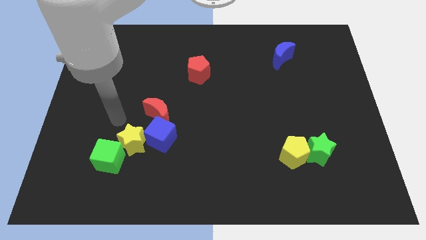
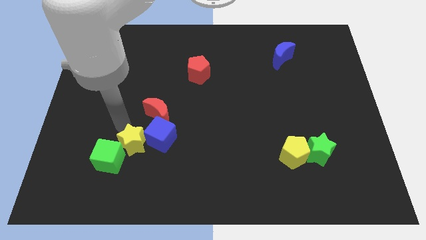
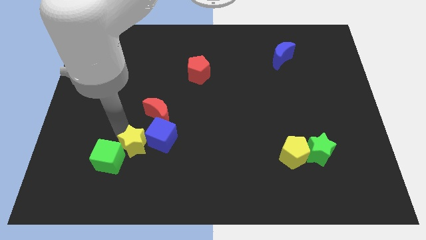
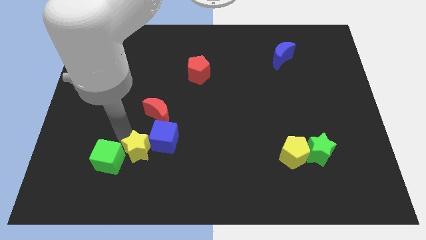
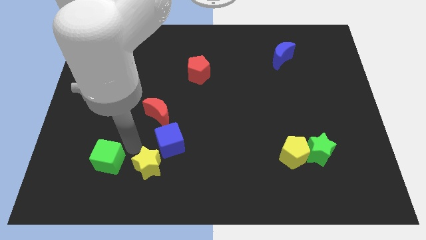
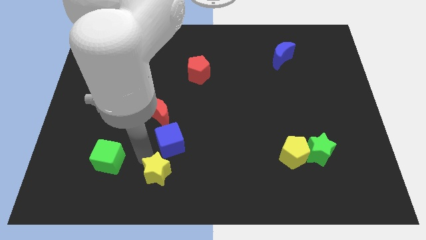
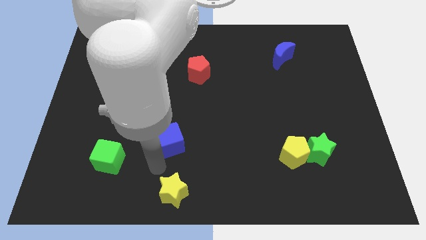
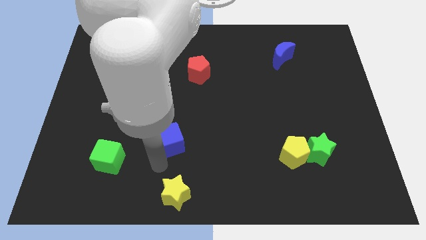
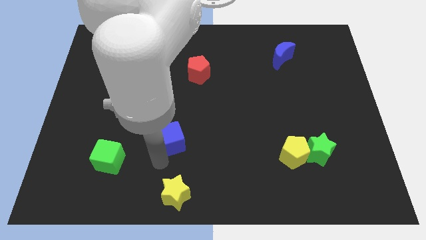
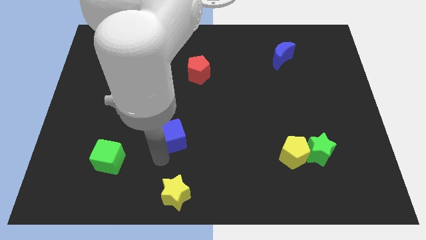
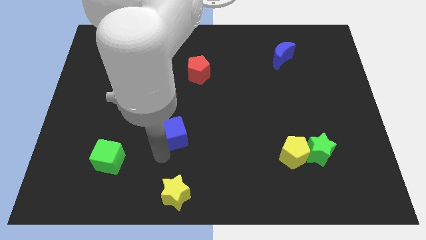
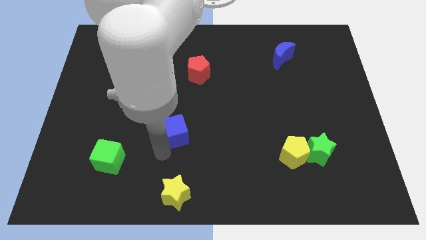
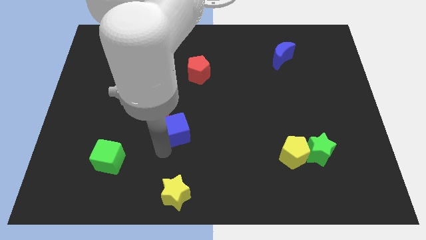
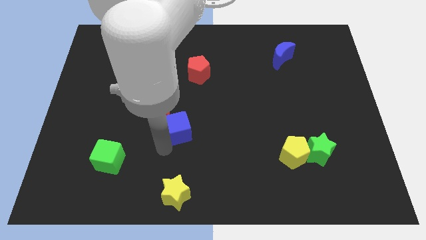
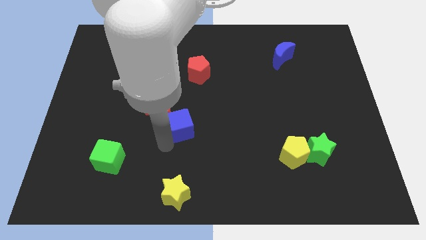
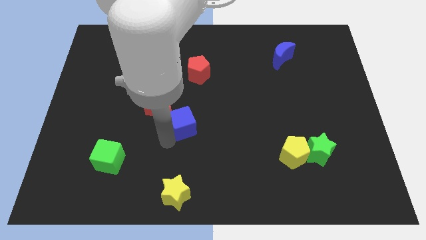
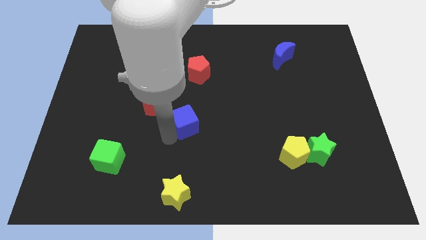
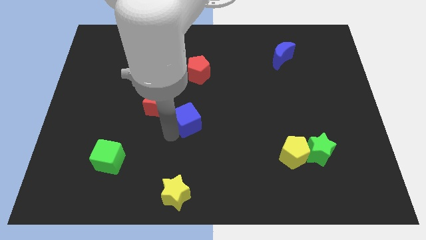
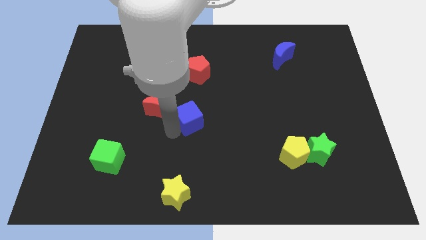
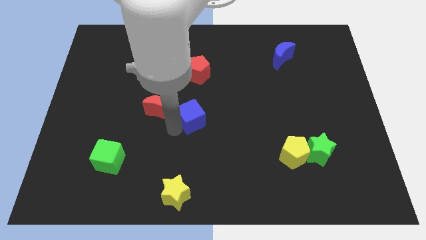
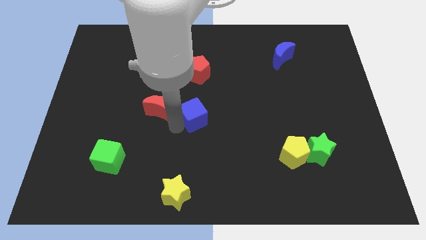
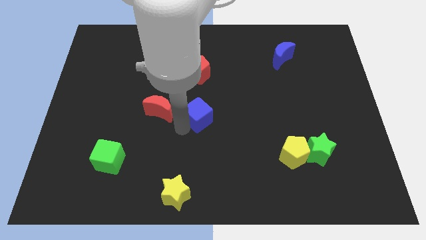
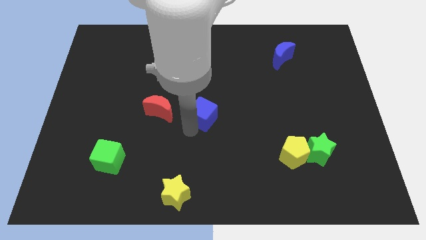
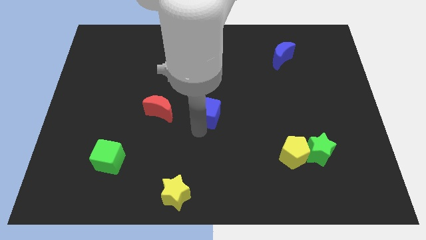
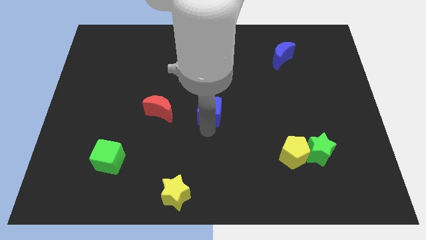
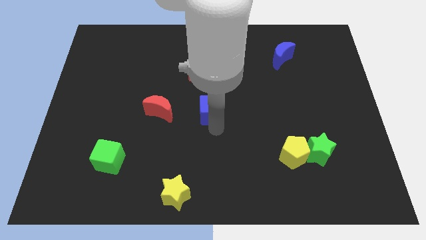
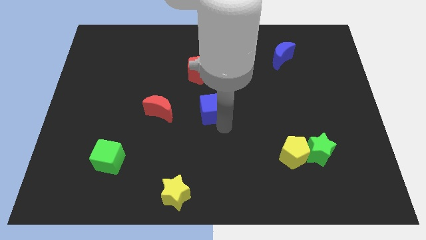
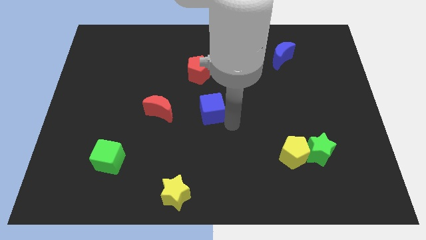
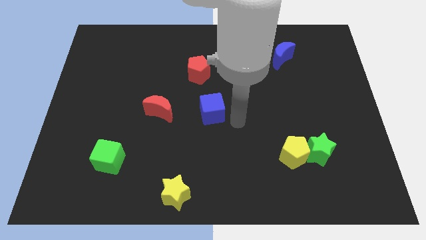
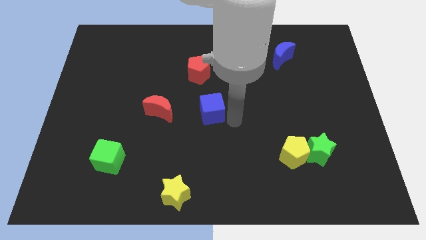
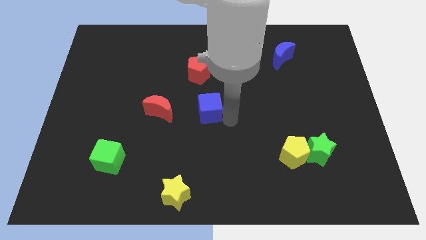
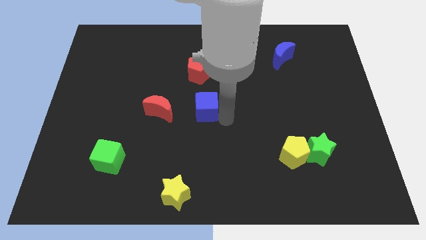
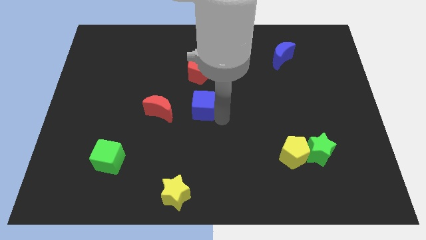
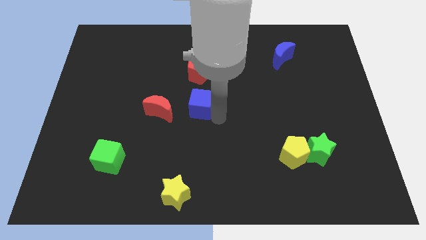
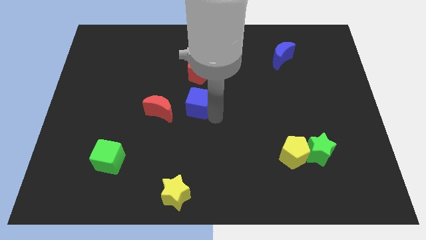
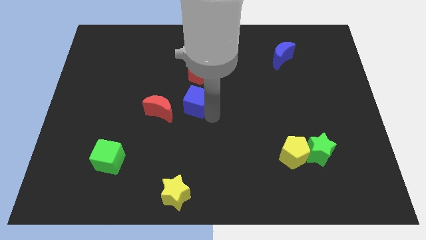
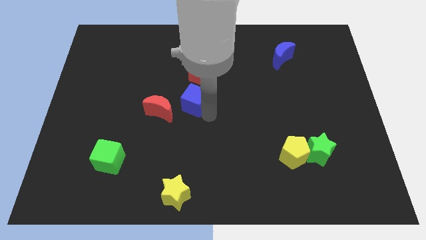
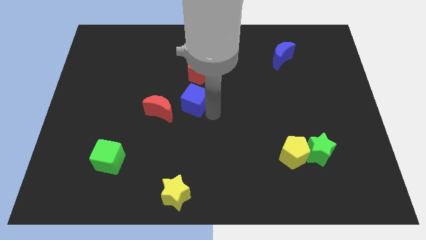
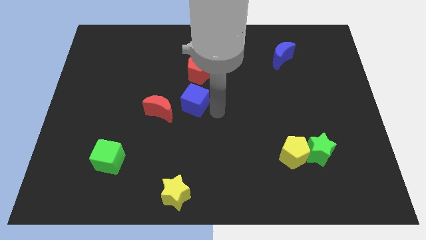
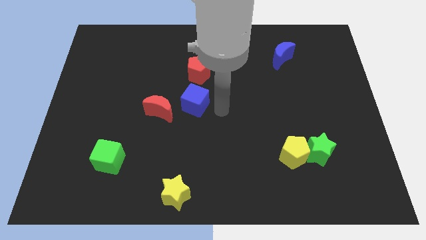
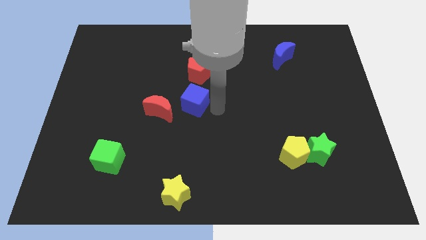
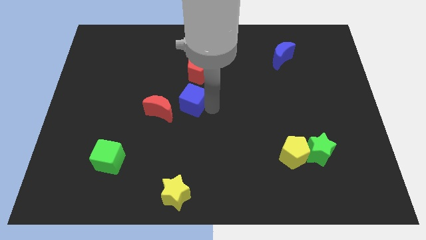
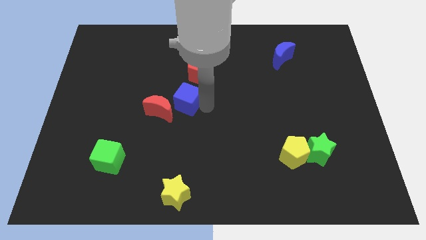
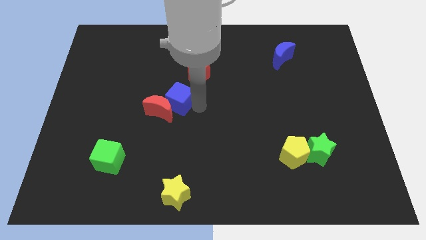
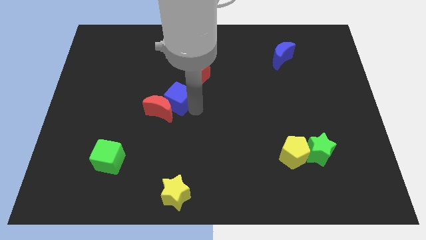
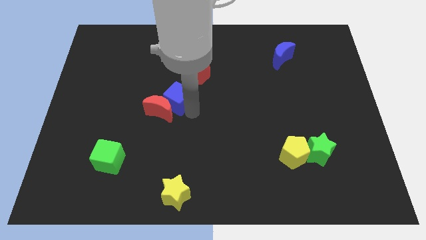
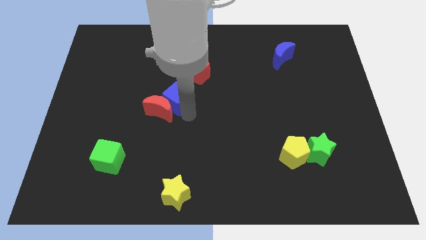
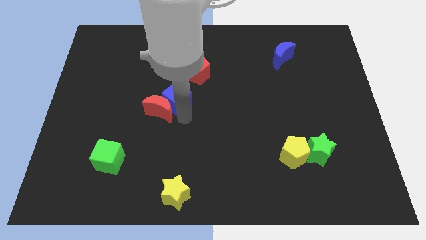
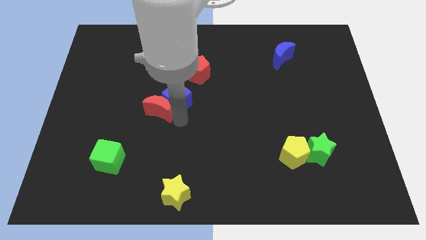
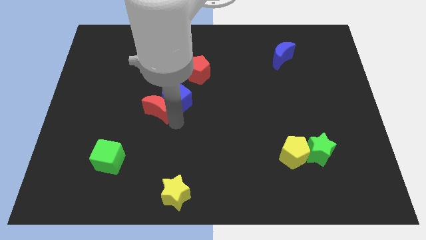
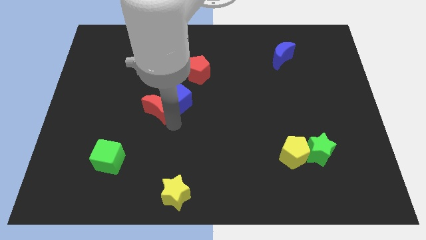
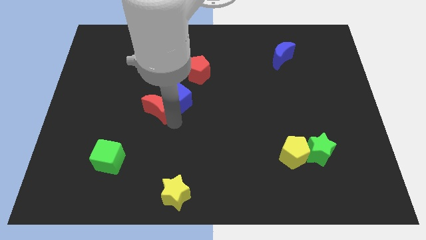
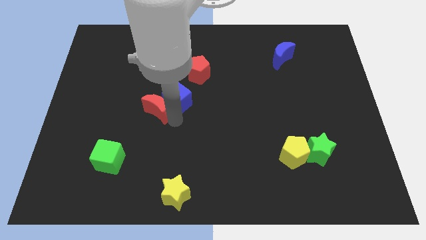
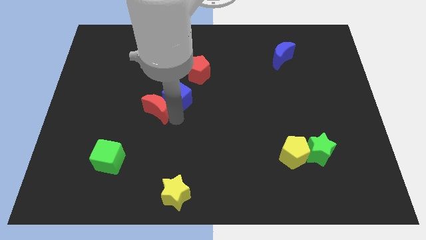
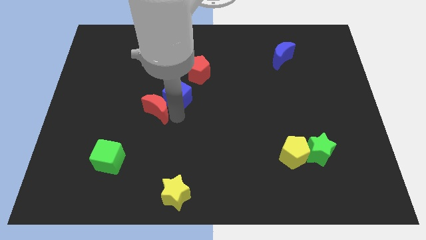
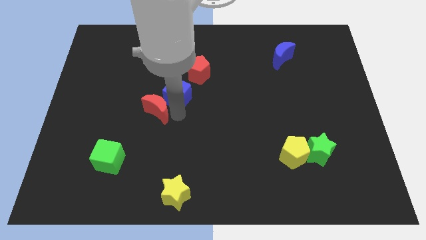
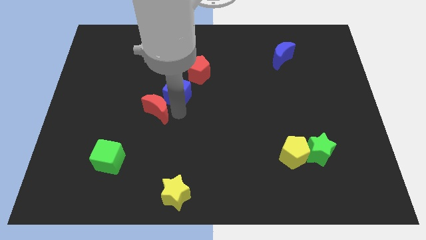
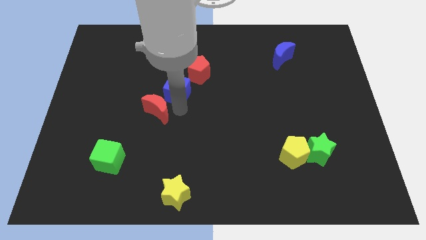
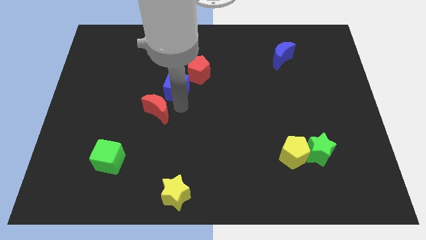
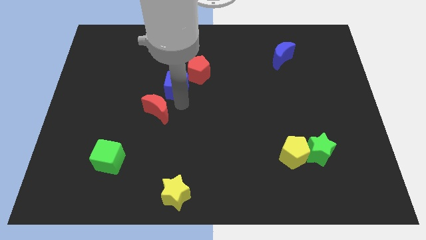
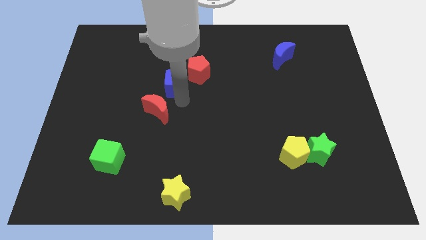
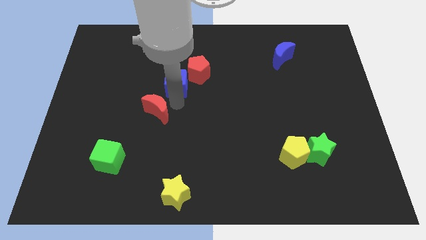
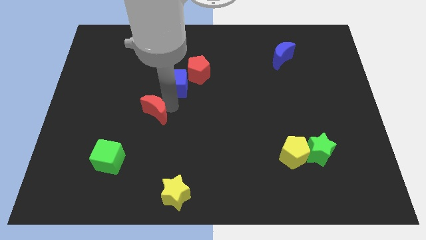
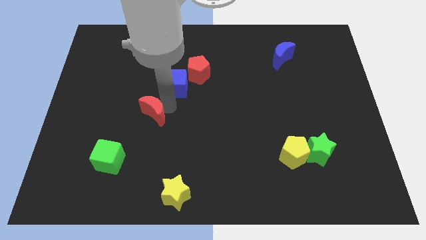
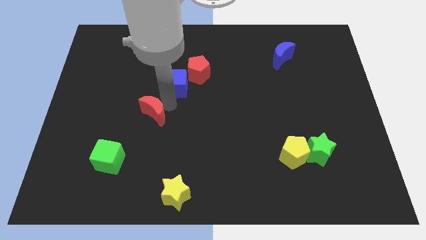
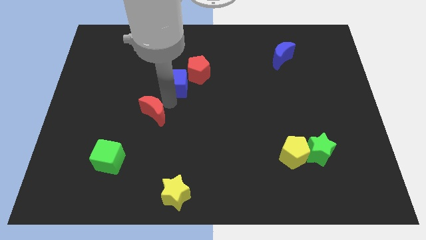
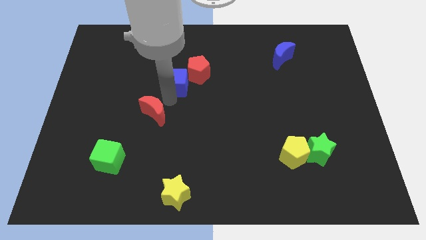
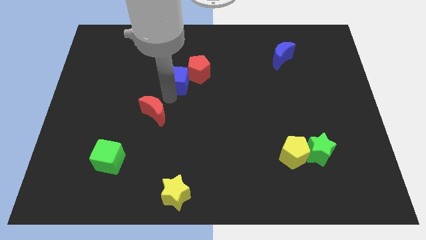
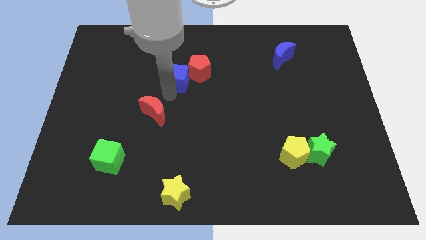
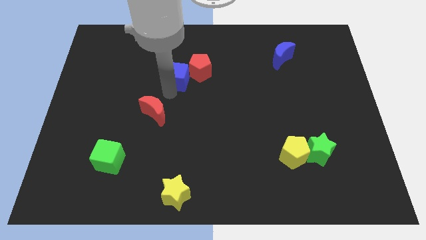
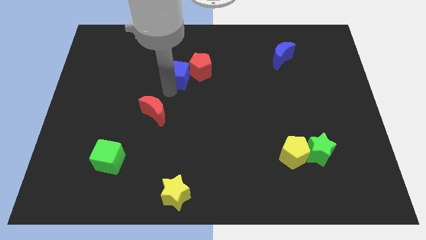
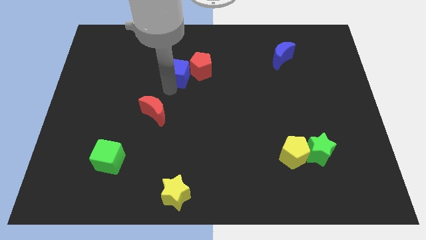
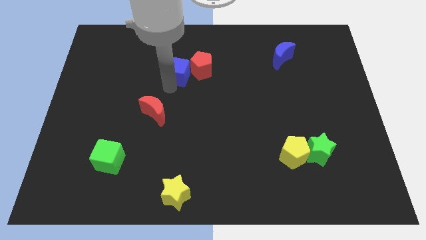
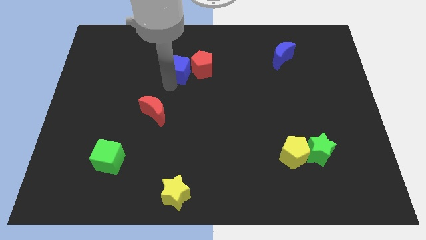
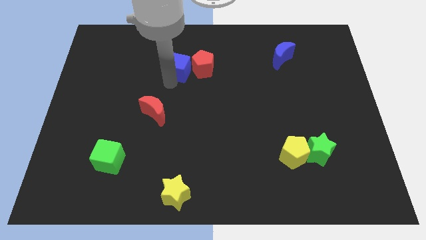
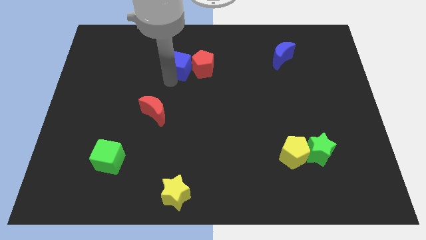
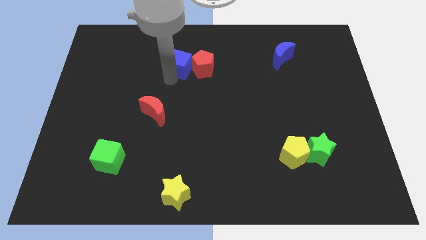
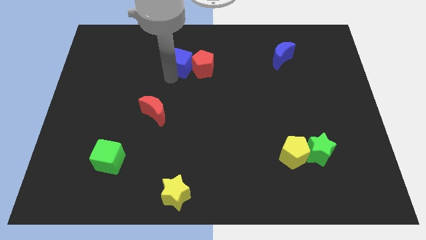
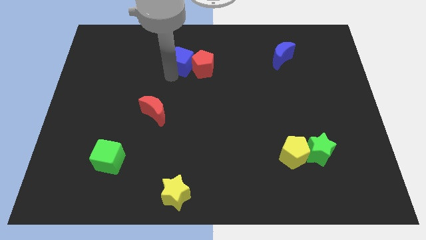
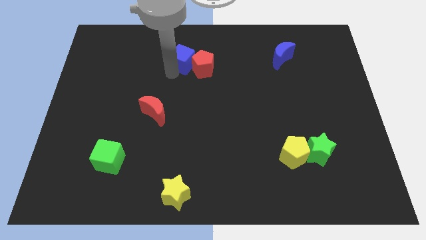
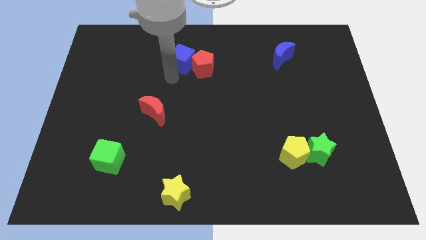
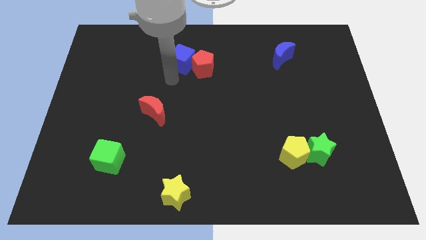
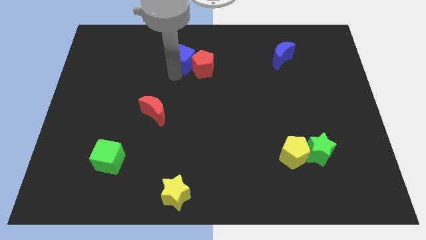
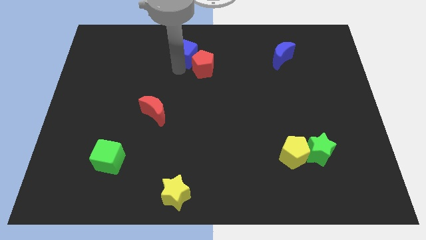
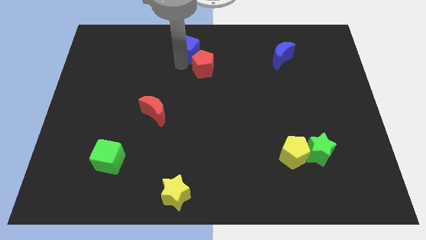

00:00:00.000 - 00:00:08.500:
put the blue cube to the top
